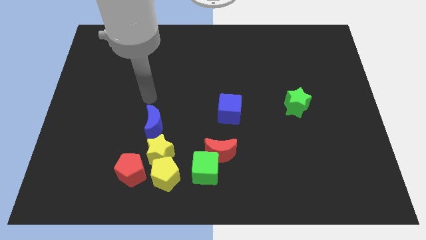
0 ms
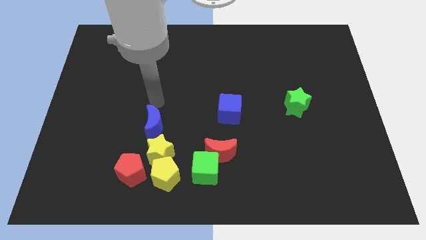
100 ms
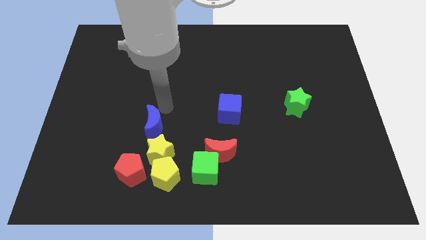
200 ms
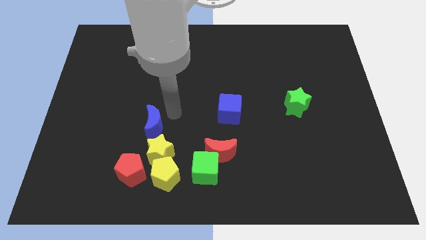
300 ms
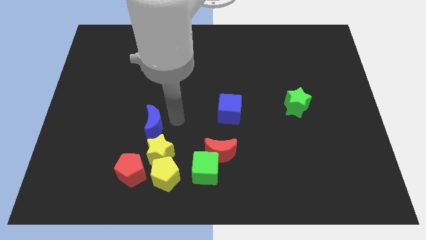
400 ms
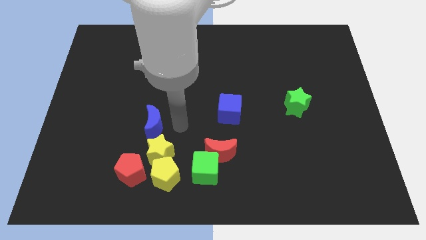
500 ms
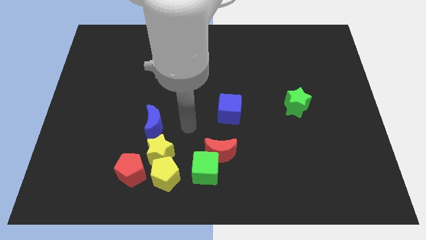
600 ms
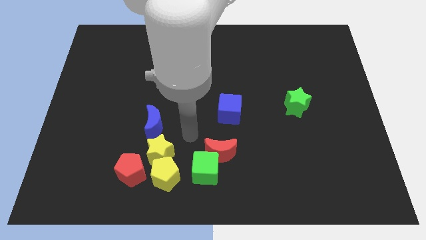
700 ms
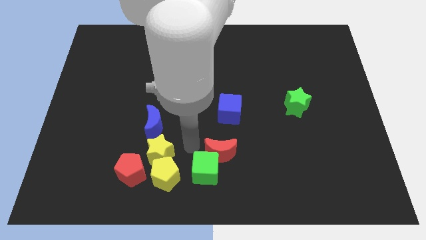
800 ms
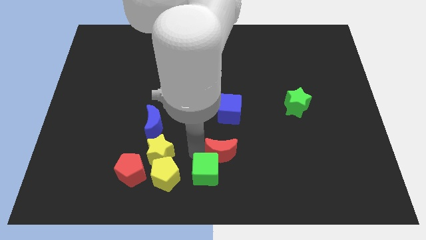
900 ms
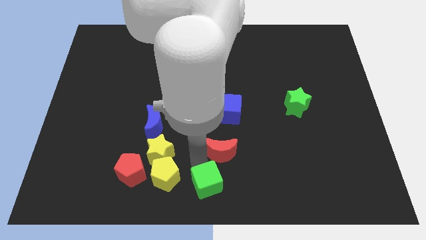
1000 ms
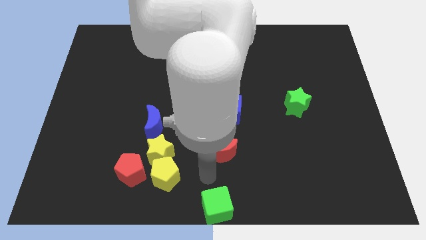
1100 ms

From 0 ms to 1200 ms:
separate the red moon from the green cube

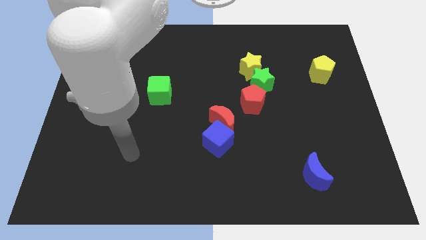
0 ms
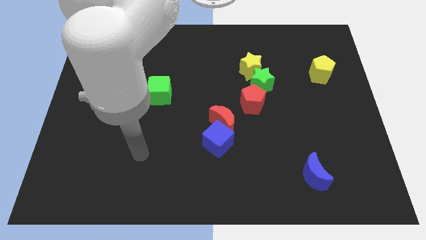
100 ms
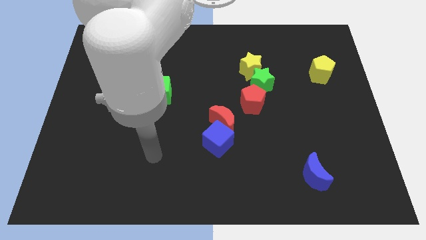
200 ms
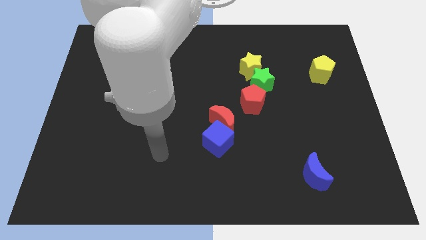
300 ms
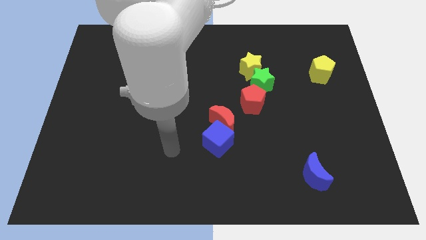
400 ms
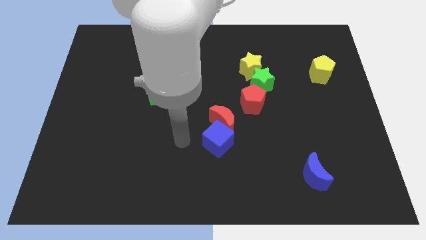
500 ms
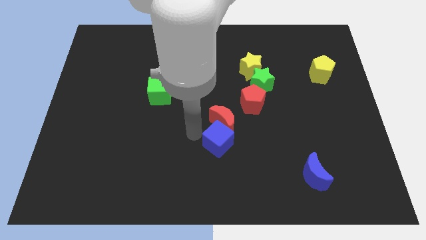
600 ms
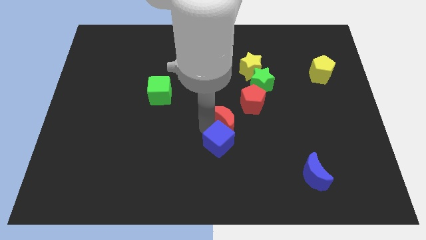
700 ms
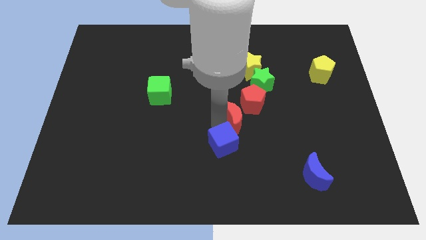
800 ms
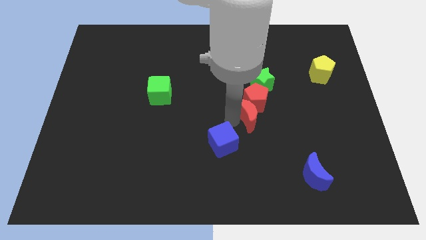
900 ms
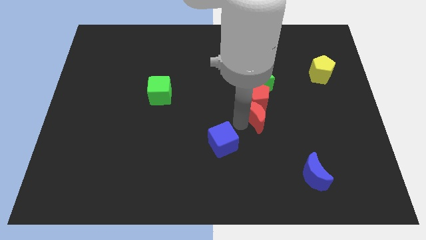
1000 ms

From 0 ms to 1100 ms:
separate the blue cube from the red moon

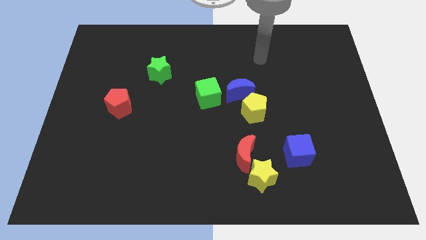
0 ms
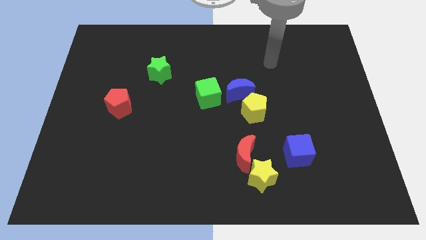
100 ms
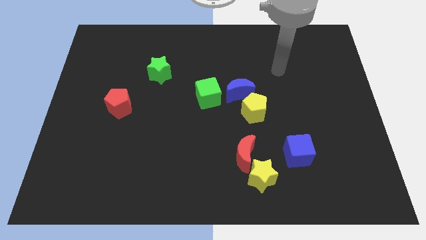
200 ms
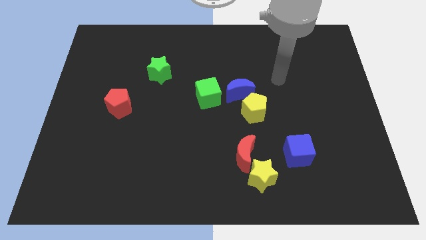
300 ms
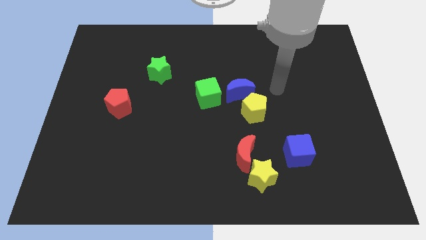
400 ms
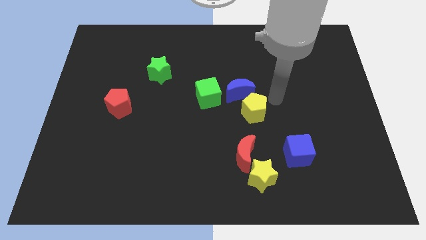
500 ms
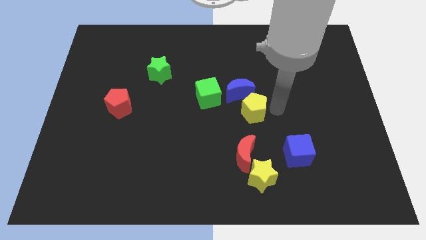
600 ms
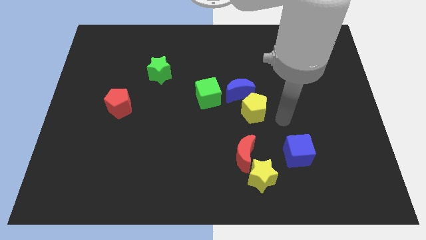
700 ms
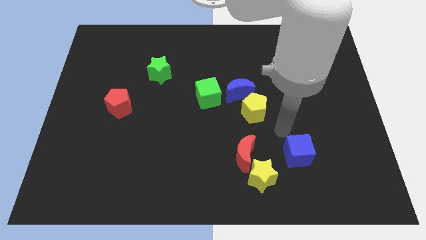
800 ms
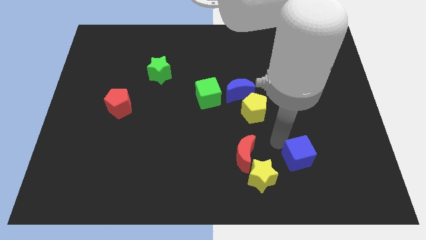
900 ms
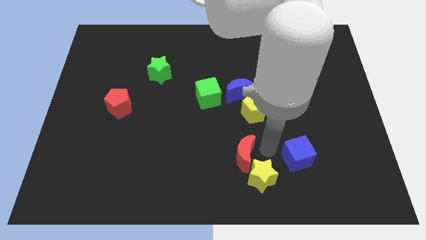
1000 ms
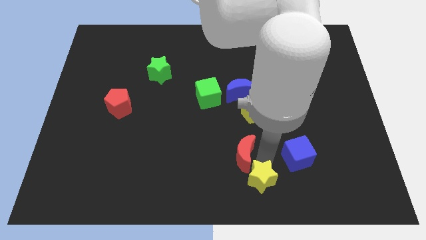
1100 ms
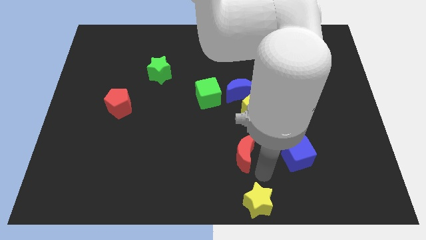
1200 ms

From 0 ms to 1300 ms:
separate the red moon from the yellow star

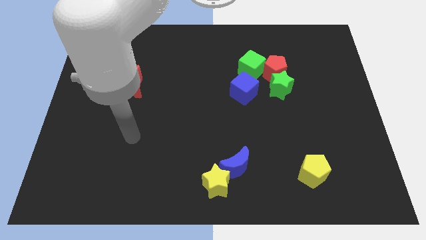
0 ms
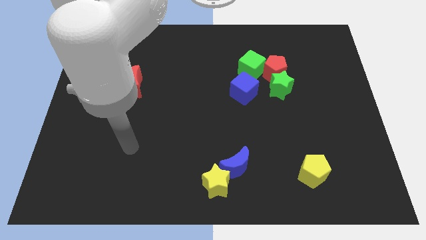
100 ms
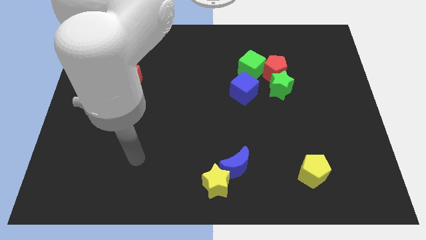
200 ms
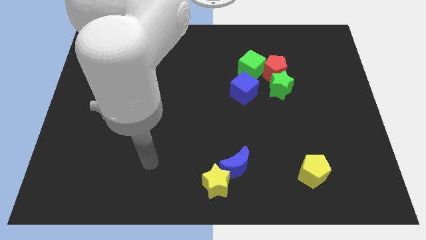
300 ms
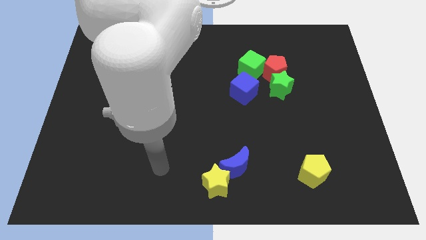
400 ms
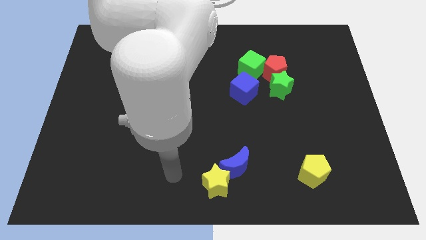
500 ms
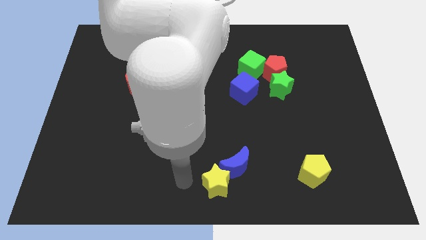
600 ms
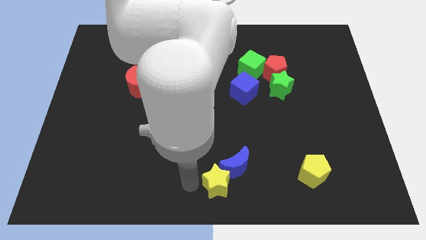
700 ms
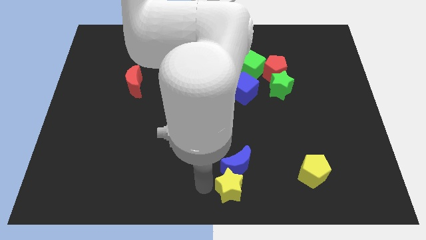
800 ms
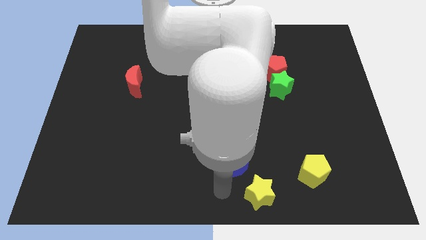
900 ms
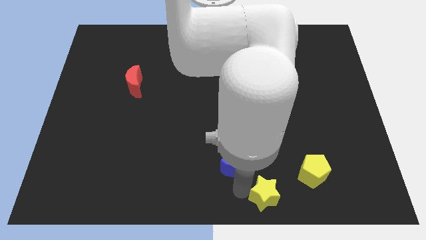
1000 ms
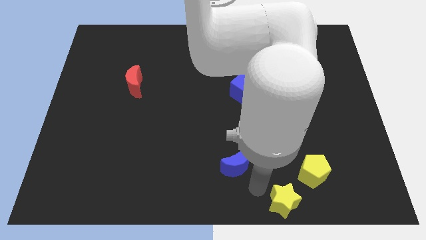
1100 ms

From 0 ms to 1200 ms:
move the blue moon away from the yellow star

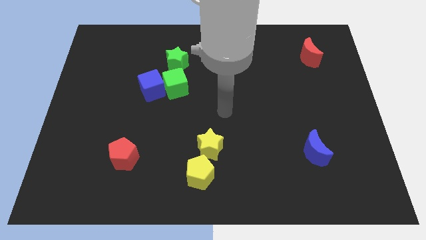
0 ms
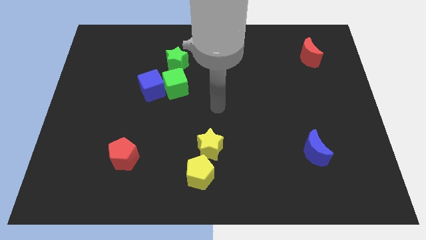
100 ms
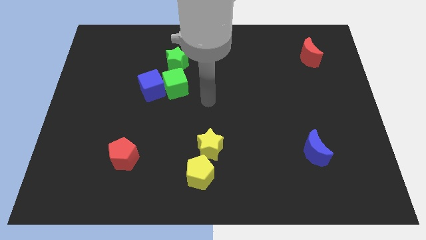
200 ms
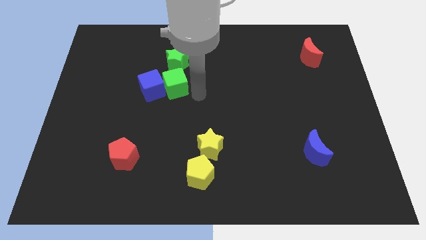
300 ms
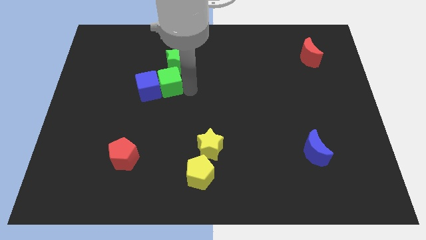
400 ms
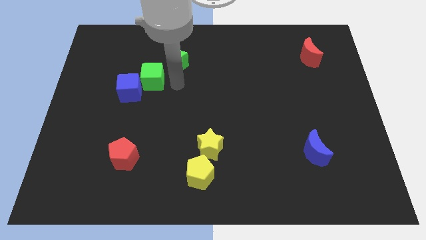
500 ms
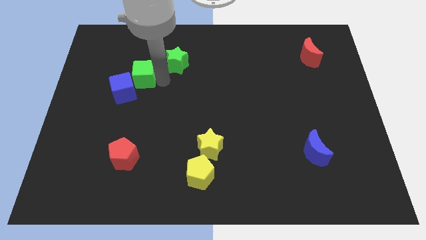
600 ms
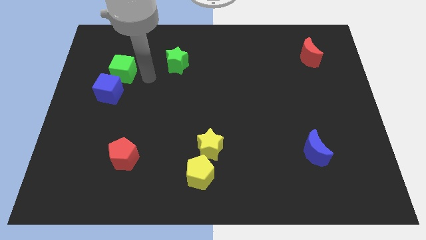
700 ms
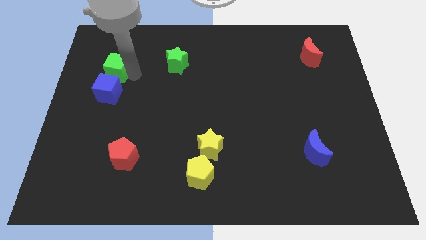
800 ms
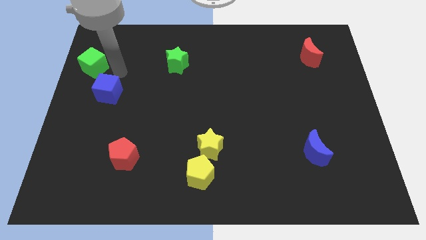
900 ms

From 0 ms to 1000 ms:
pull the blue cube apart from the green cube

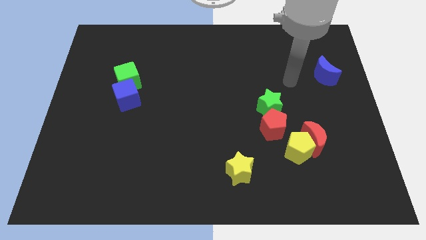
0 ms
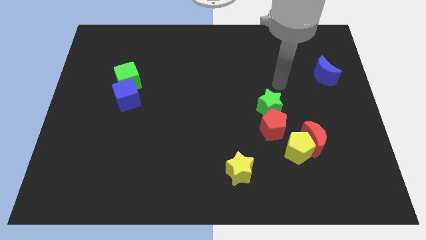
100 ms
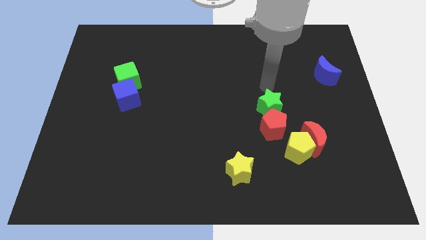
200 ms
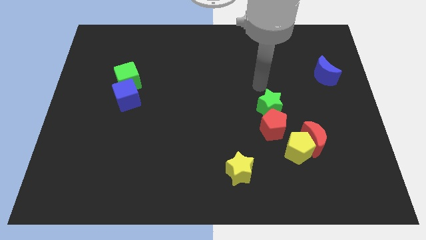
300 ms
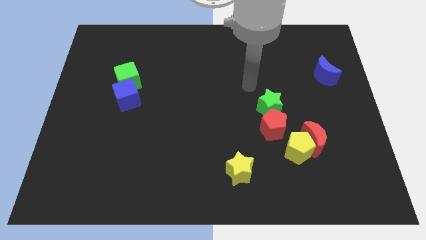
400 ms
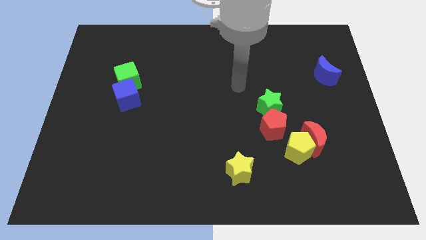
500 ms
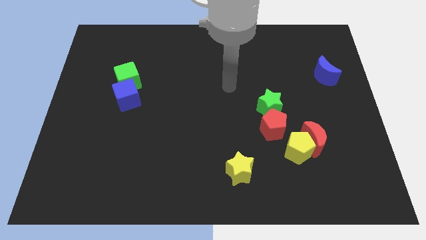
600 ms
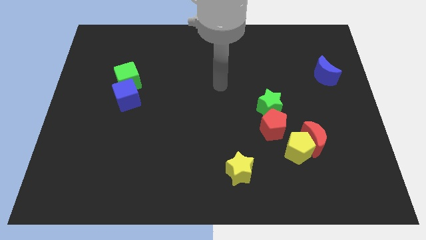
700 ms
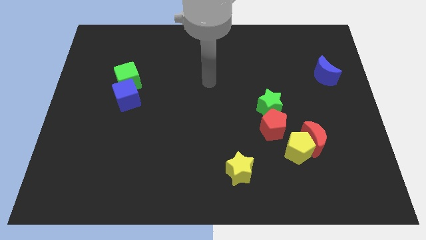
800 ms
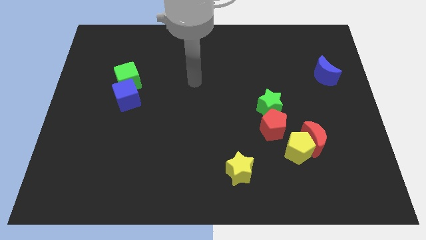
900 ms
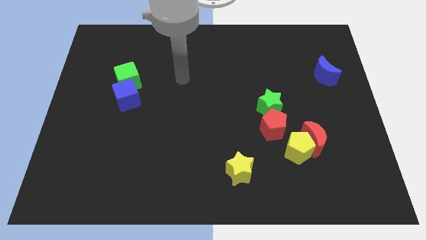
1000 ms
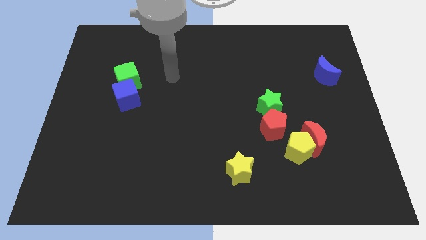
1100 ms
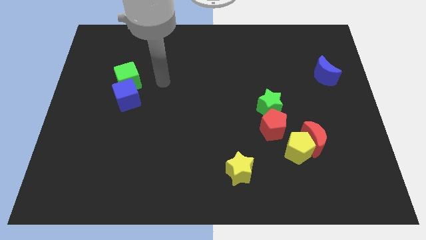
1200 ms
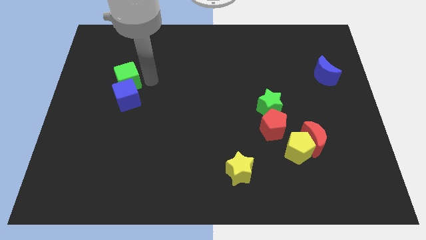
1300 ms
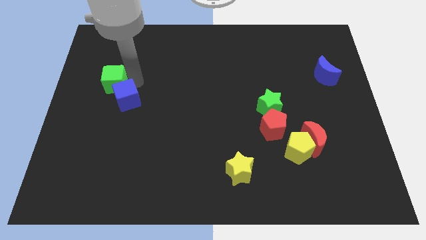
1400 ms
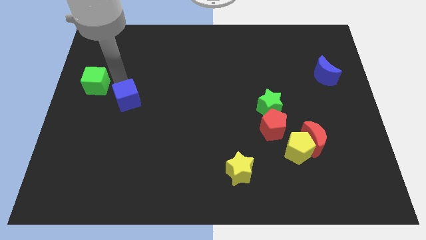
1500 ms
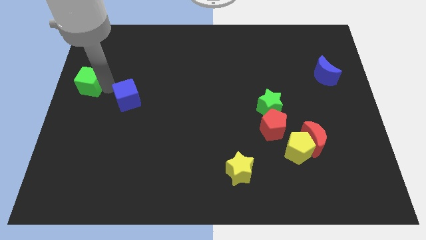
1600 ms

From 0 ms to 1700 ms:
separate the blue cube from the green cube

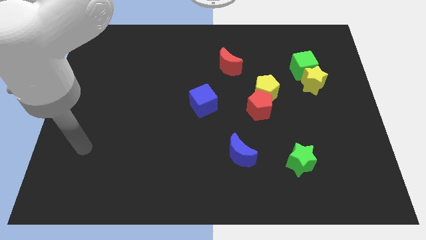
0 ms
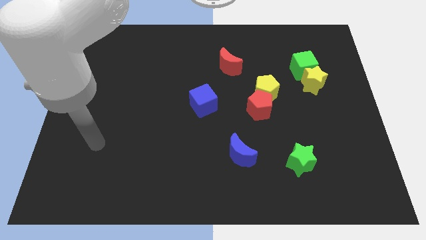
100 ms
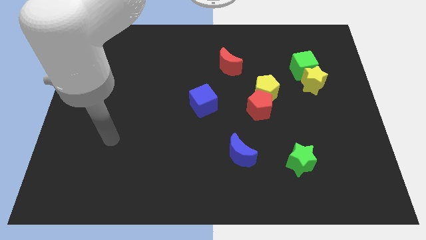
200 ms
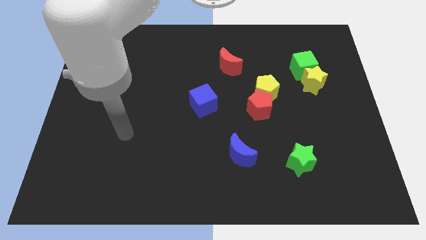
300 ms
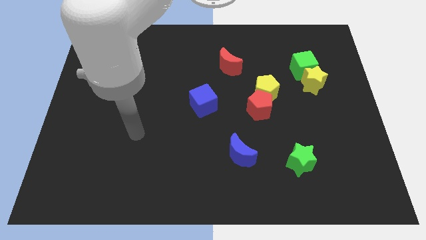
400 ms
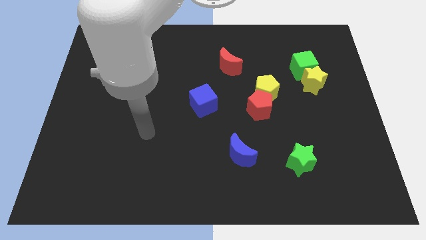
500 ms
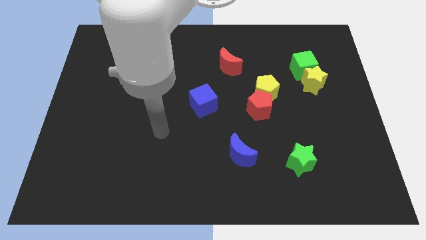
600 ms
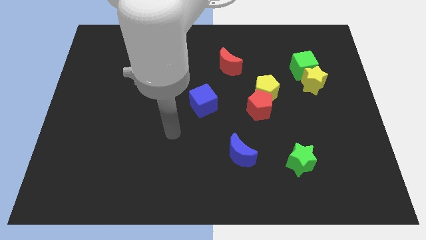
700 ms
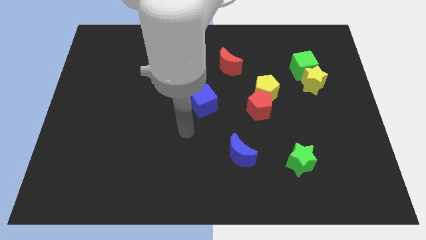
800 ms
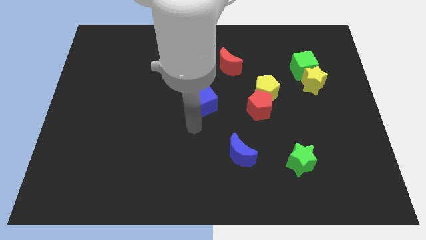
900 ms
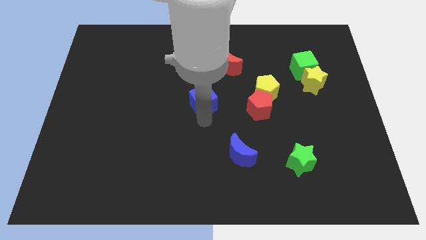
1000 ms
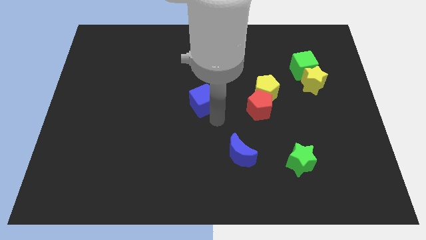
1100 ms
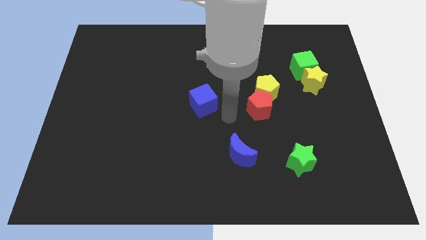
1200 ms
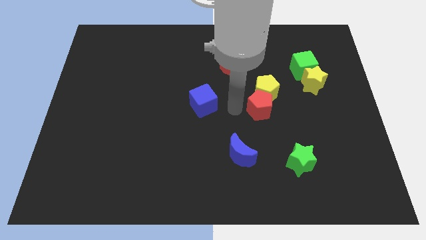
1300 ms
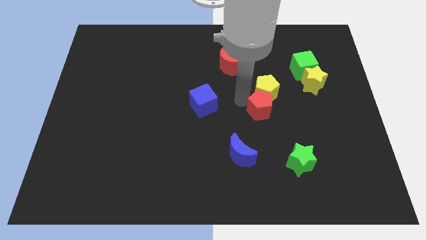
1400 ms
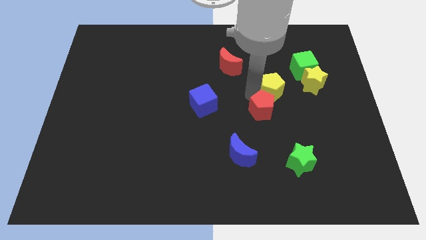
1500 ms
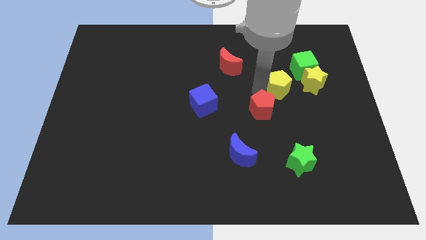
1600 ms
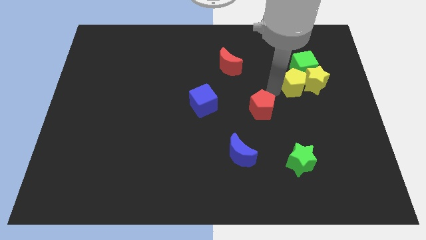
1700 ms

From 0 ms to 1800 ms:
pull the red pentagon apart from the yellow pentagon
